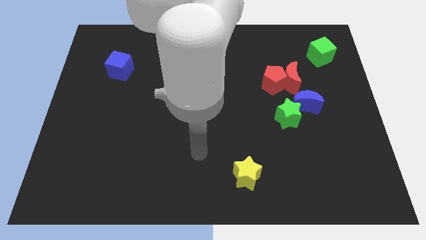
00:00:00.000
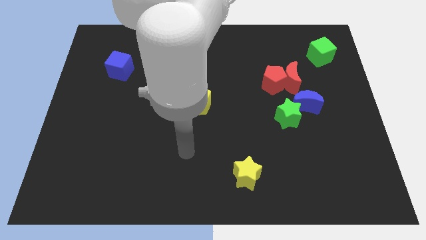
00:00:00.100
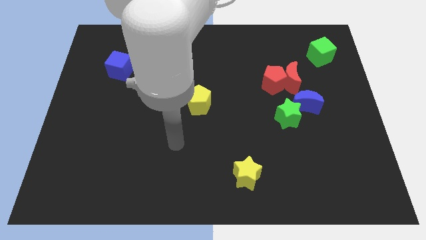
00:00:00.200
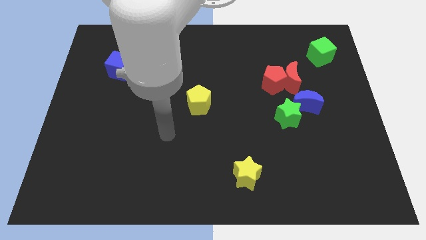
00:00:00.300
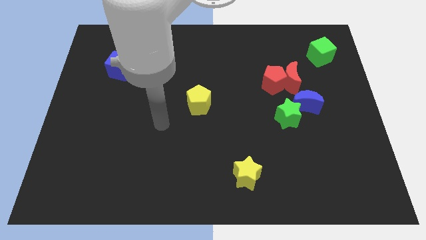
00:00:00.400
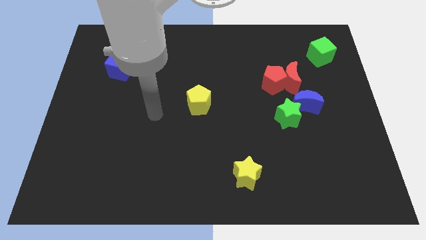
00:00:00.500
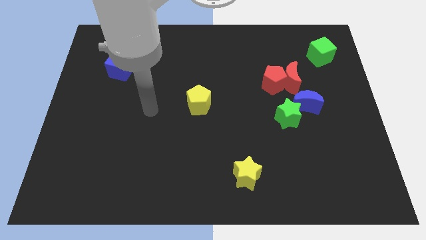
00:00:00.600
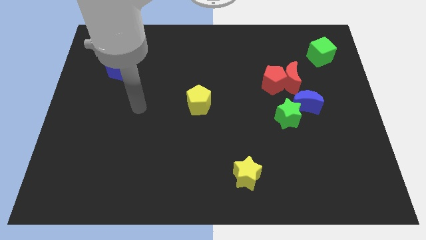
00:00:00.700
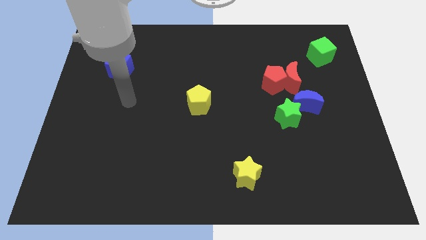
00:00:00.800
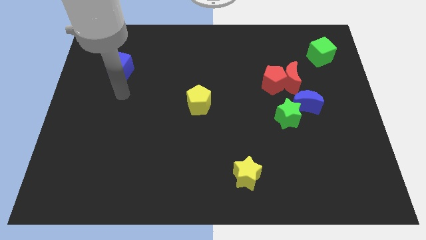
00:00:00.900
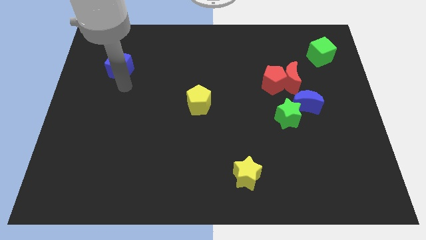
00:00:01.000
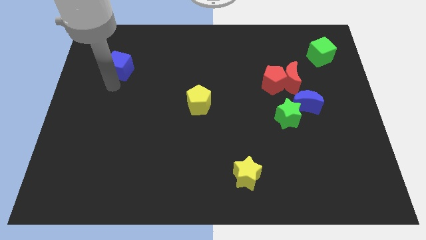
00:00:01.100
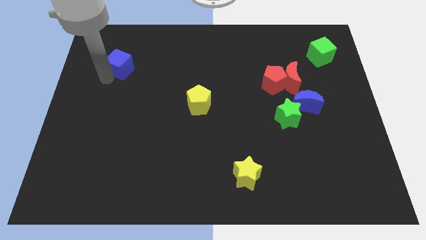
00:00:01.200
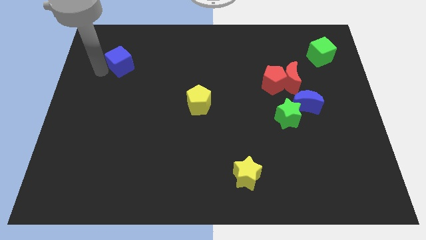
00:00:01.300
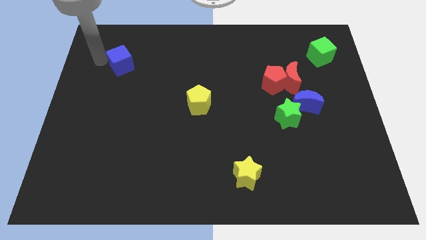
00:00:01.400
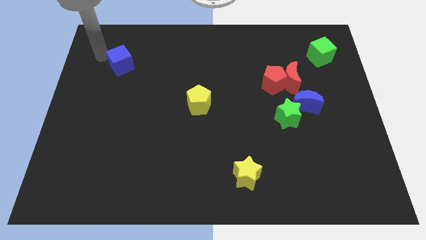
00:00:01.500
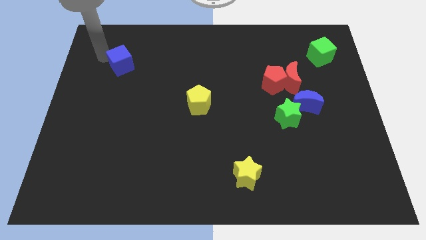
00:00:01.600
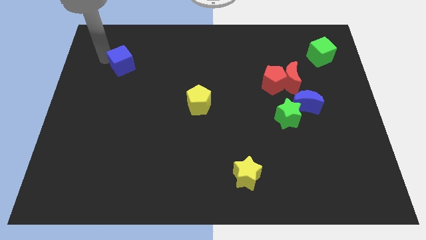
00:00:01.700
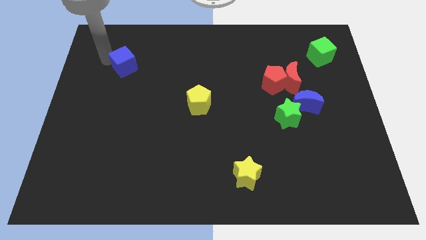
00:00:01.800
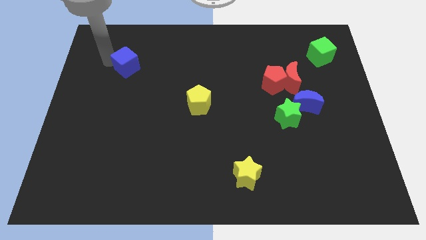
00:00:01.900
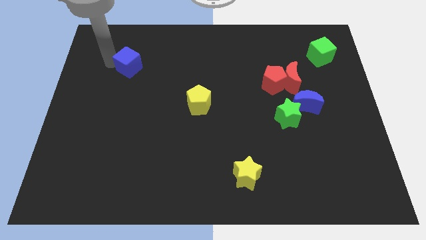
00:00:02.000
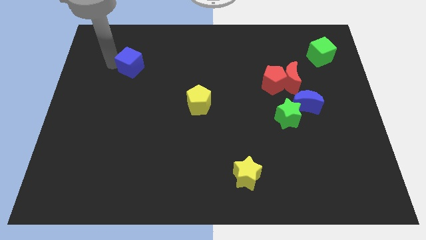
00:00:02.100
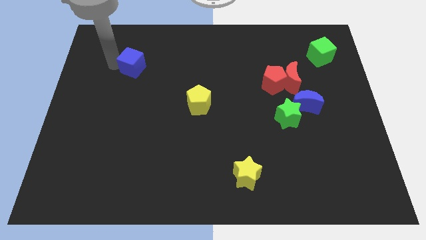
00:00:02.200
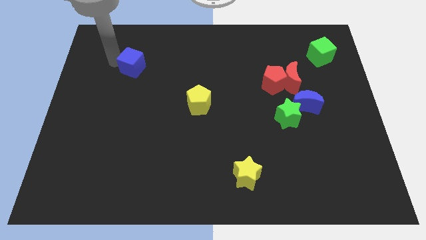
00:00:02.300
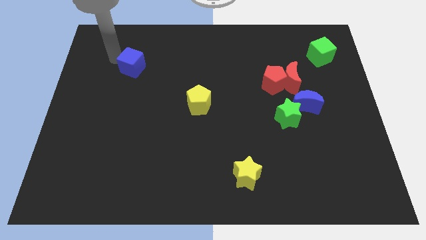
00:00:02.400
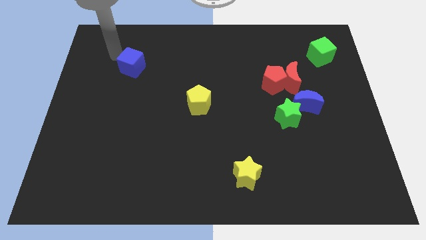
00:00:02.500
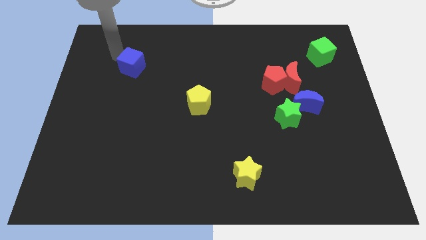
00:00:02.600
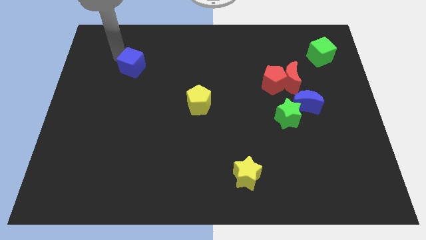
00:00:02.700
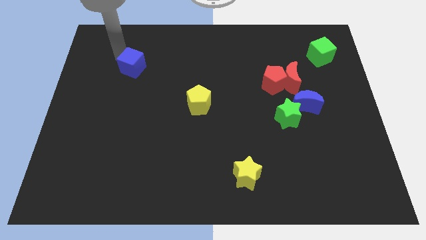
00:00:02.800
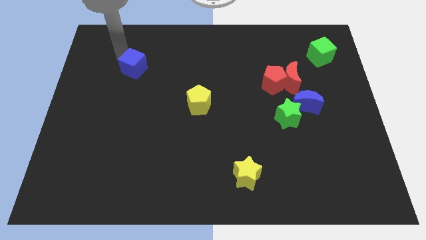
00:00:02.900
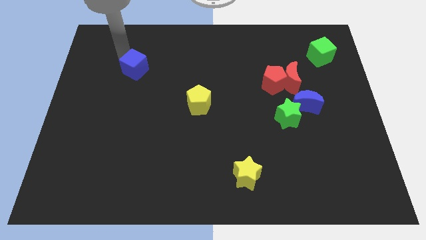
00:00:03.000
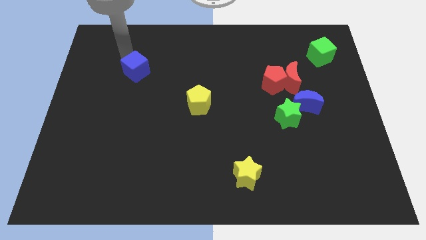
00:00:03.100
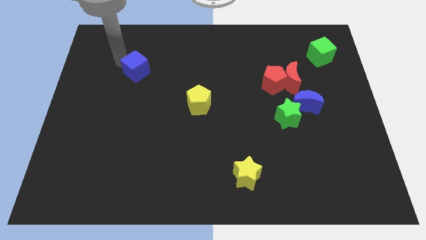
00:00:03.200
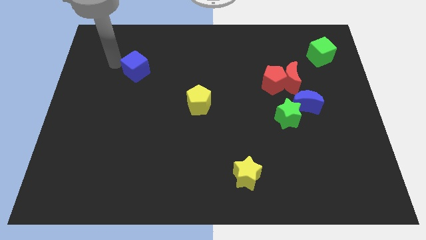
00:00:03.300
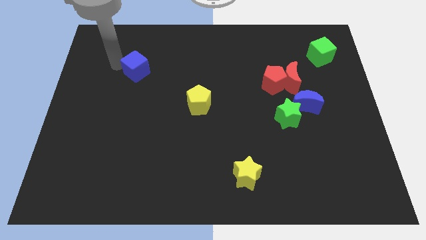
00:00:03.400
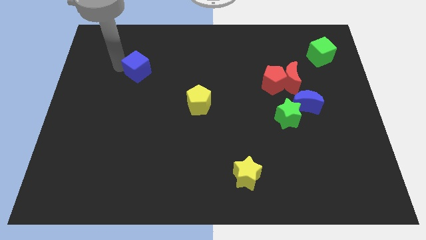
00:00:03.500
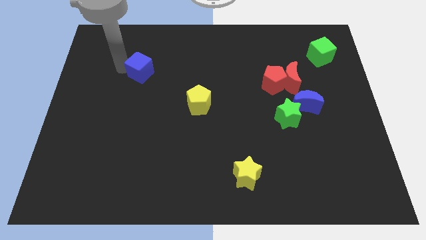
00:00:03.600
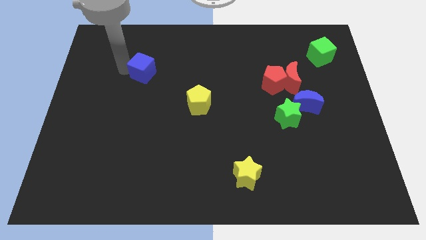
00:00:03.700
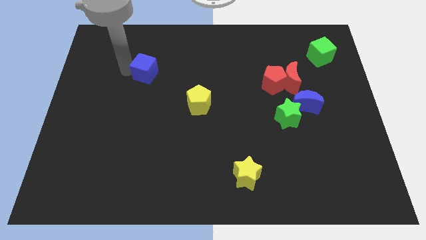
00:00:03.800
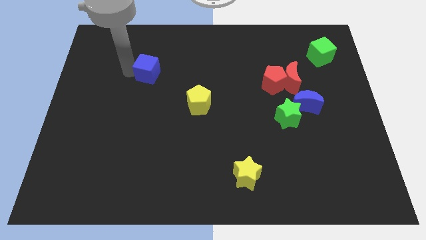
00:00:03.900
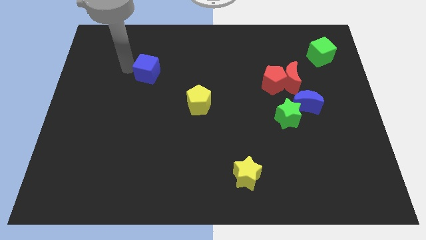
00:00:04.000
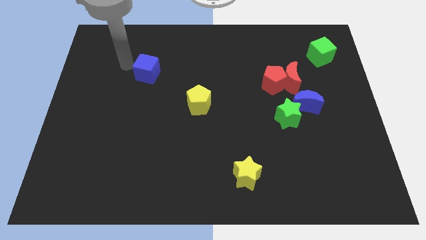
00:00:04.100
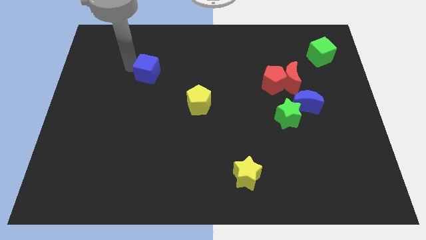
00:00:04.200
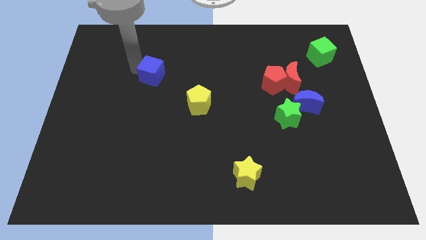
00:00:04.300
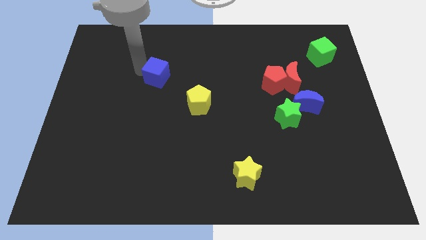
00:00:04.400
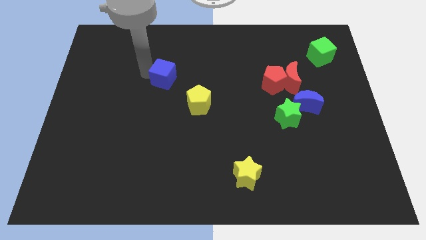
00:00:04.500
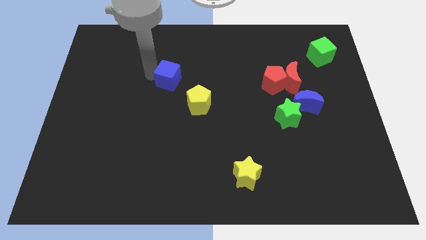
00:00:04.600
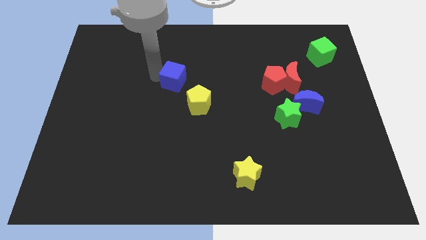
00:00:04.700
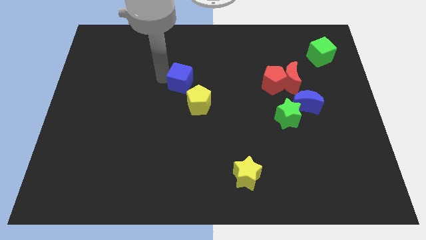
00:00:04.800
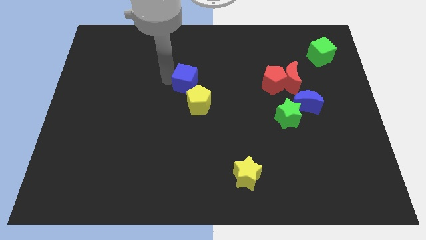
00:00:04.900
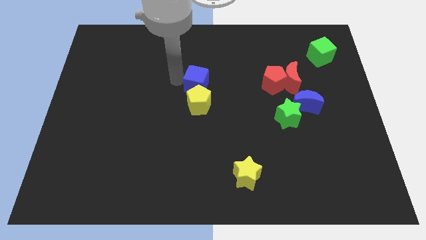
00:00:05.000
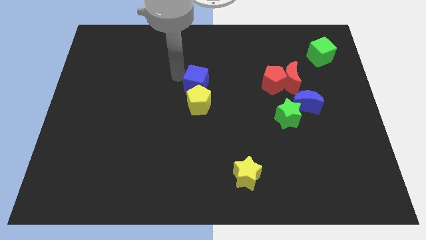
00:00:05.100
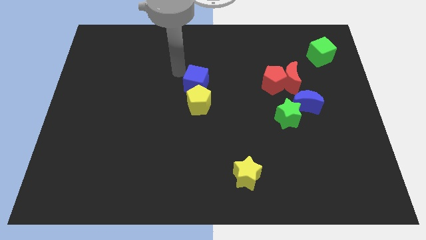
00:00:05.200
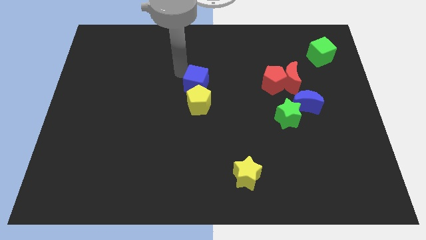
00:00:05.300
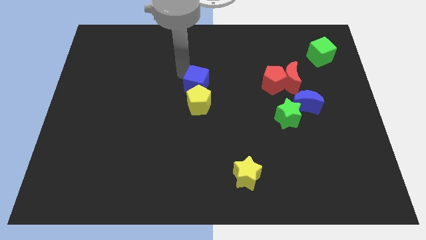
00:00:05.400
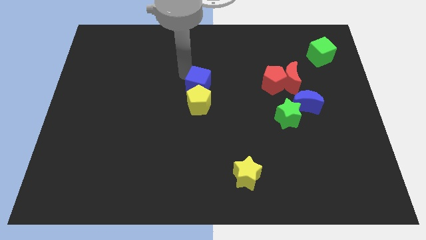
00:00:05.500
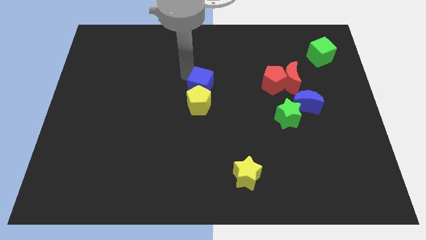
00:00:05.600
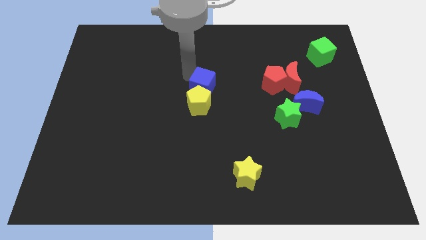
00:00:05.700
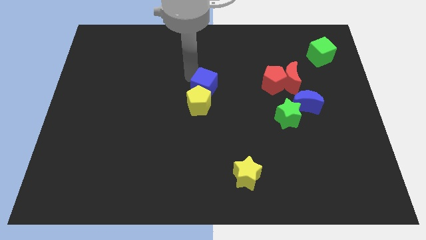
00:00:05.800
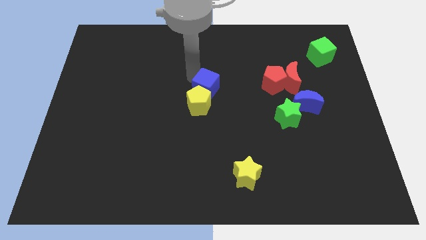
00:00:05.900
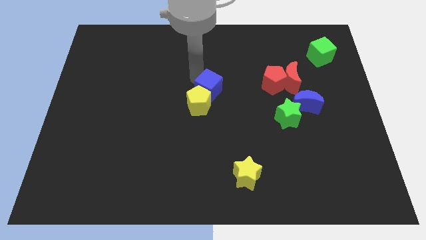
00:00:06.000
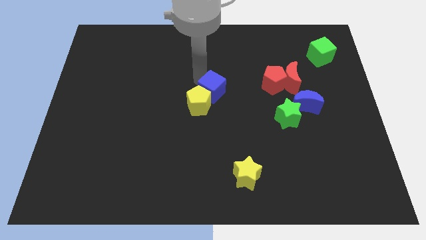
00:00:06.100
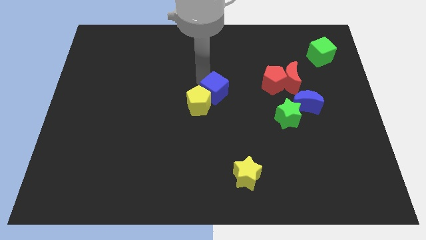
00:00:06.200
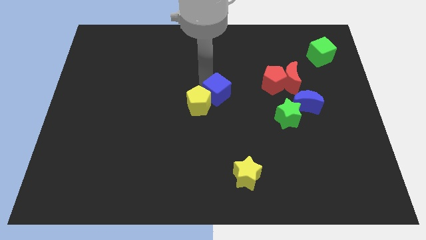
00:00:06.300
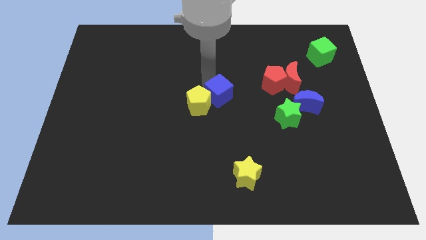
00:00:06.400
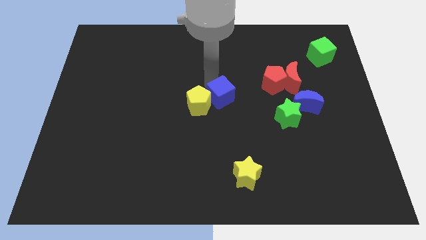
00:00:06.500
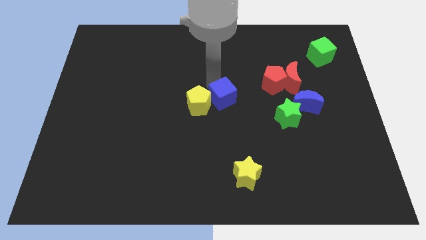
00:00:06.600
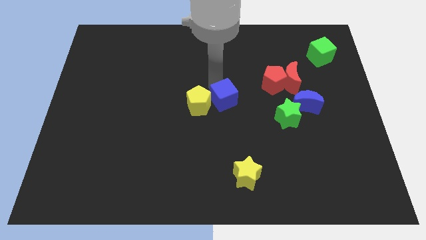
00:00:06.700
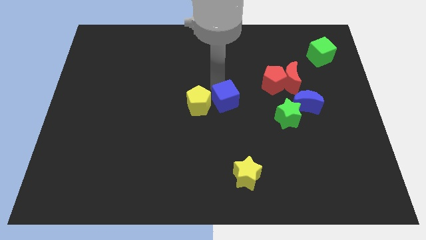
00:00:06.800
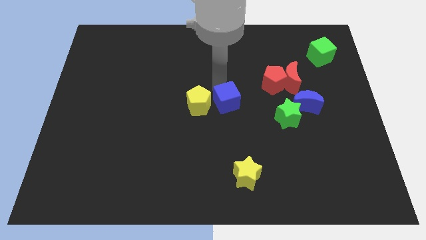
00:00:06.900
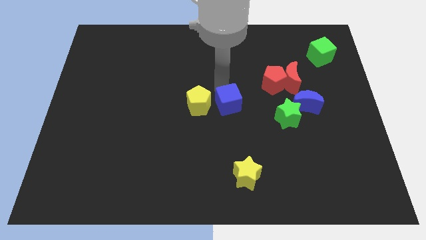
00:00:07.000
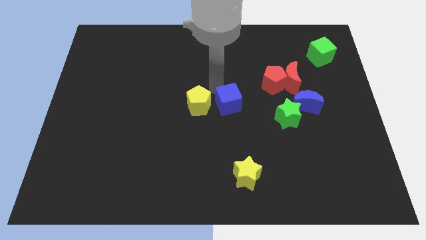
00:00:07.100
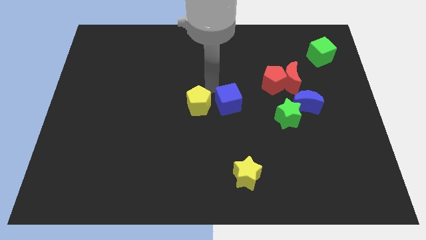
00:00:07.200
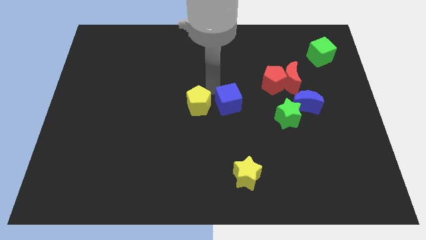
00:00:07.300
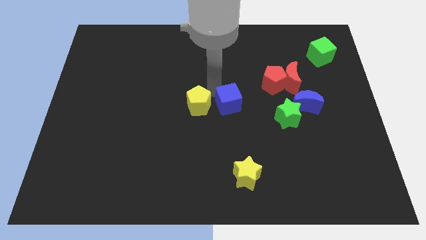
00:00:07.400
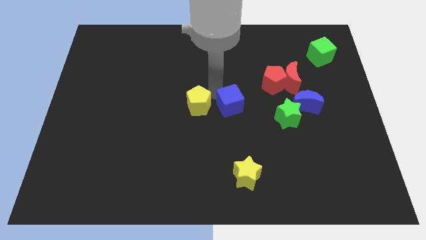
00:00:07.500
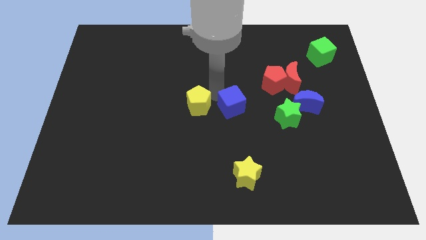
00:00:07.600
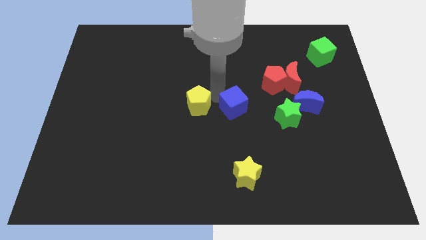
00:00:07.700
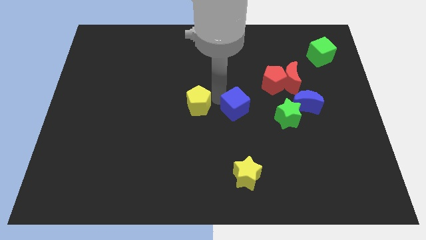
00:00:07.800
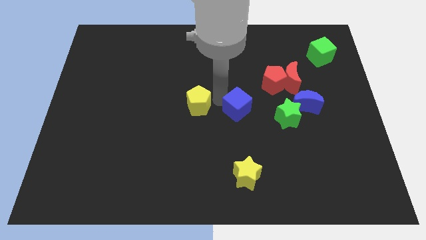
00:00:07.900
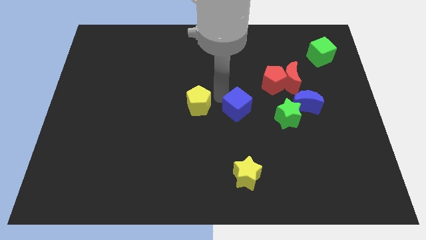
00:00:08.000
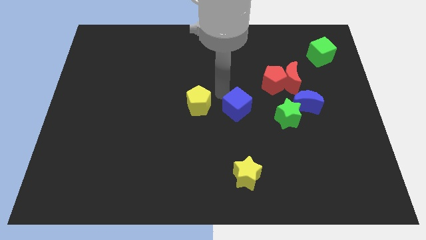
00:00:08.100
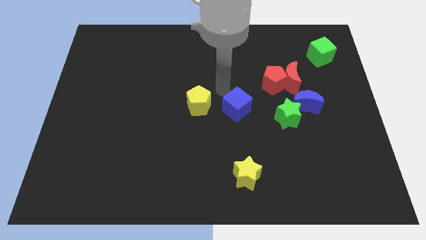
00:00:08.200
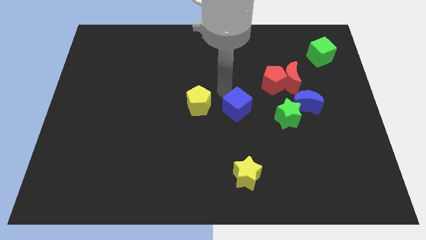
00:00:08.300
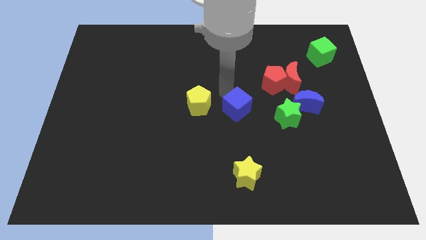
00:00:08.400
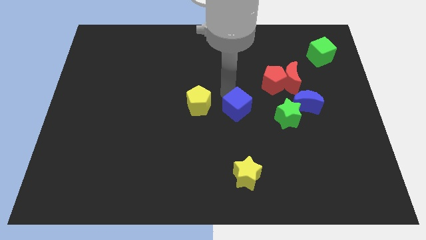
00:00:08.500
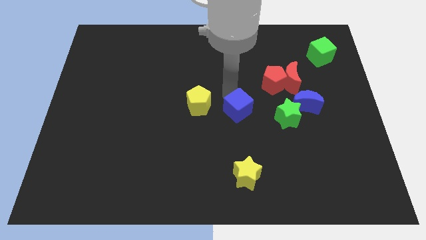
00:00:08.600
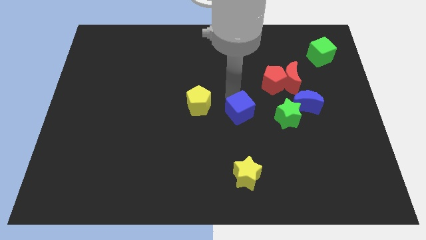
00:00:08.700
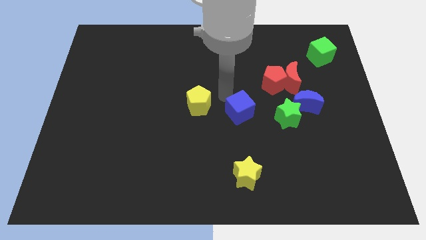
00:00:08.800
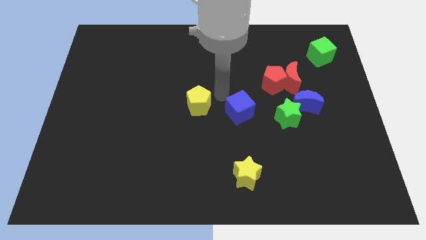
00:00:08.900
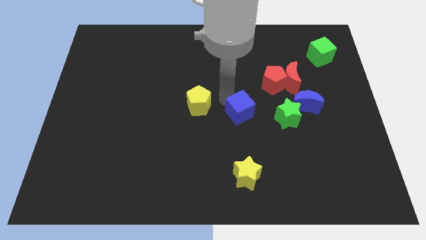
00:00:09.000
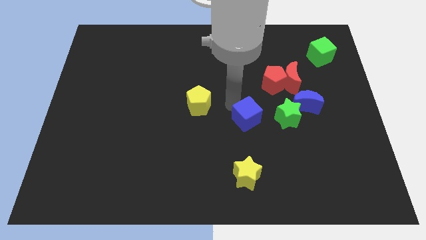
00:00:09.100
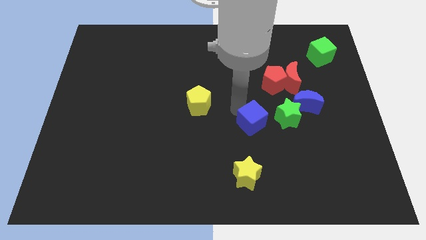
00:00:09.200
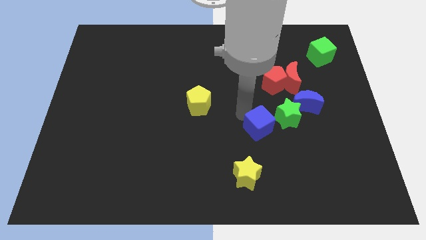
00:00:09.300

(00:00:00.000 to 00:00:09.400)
move the blue cube to the bottom left side of the green star
